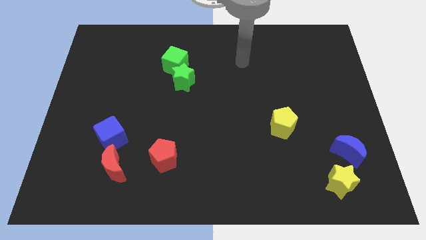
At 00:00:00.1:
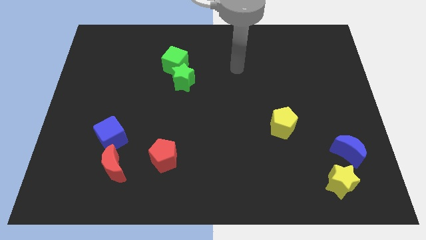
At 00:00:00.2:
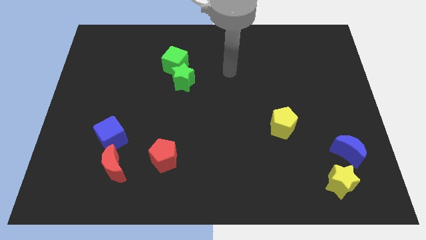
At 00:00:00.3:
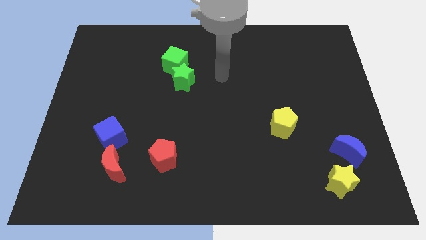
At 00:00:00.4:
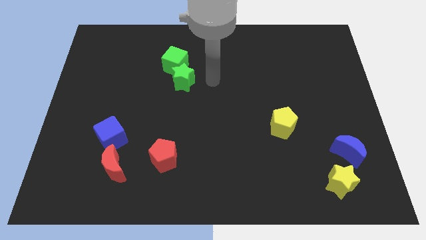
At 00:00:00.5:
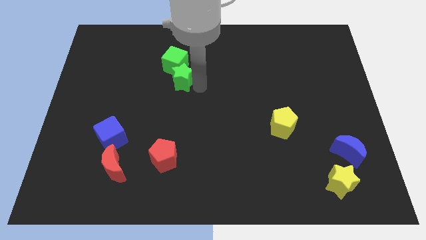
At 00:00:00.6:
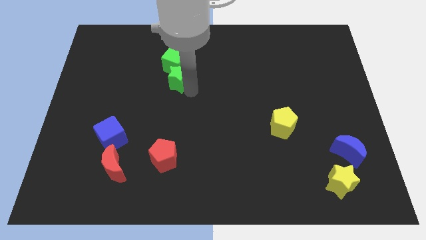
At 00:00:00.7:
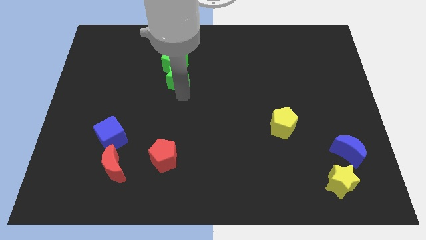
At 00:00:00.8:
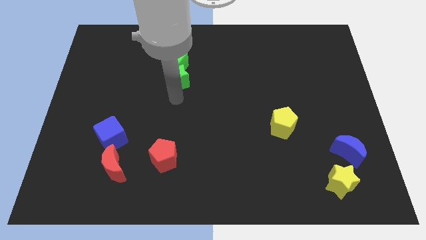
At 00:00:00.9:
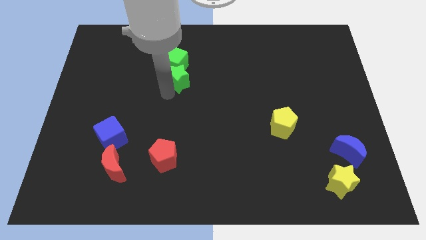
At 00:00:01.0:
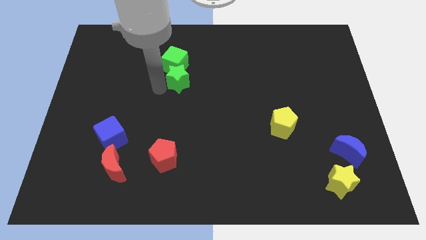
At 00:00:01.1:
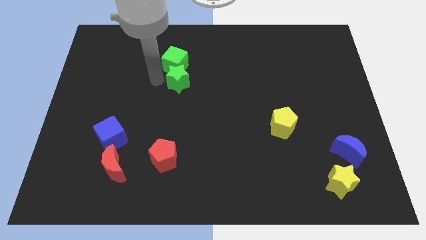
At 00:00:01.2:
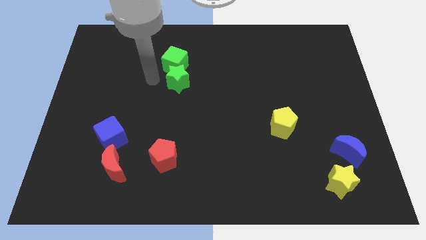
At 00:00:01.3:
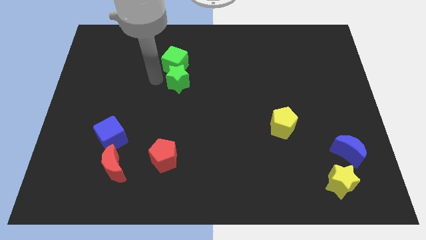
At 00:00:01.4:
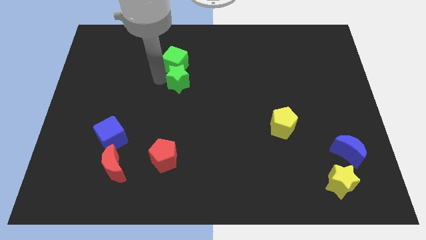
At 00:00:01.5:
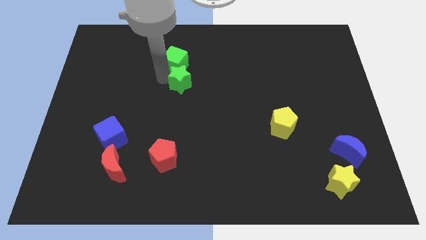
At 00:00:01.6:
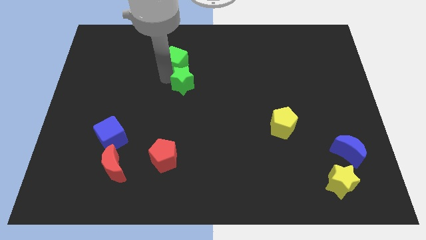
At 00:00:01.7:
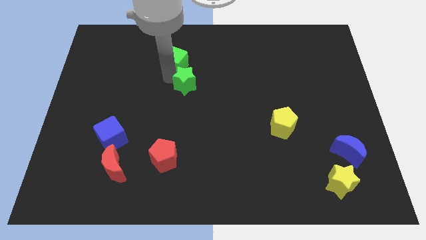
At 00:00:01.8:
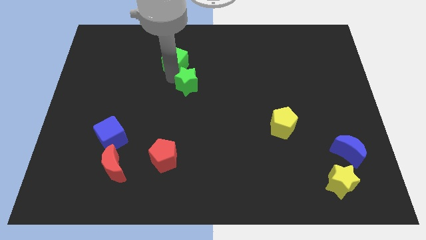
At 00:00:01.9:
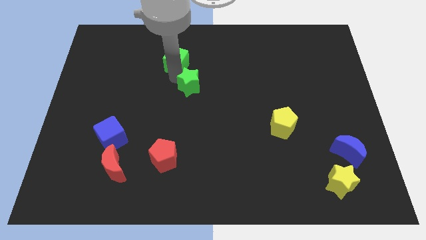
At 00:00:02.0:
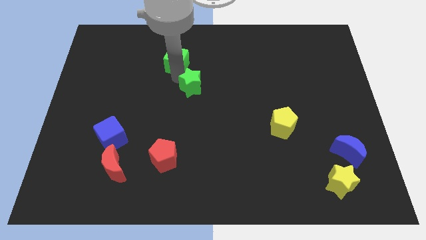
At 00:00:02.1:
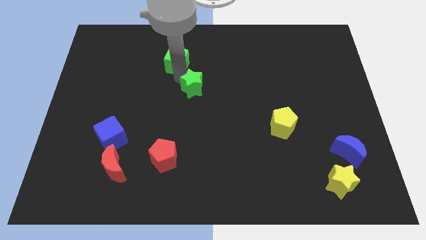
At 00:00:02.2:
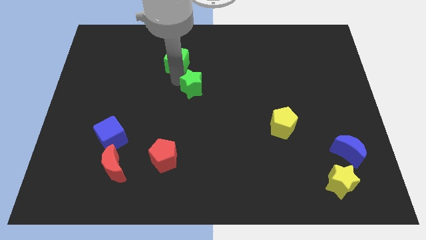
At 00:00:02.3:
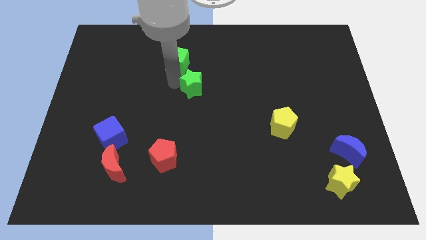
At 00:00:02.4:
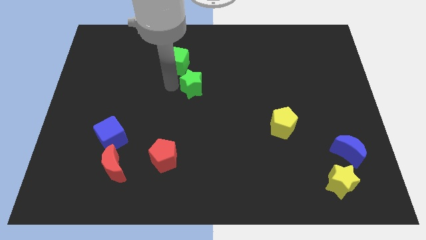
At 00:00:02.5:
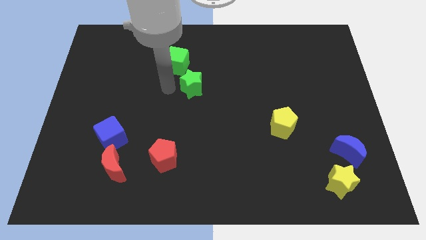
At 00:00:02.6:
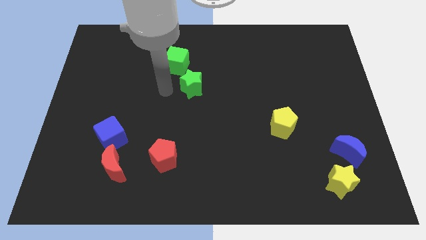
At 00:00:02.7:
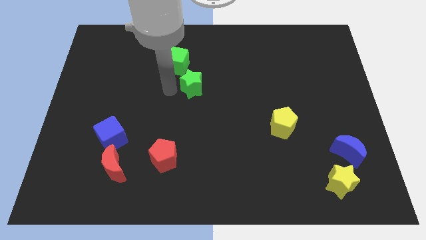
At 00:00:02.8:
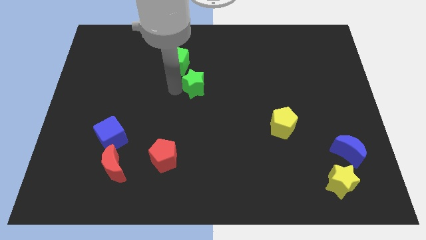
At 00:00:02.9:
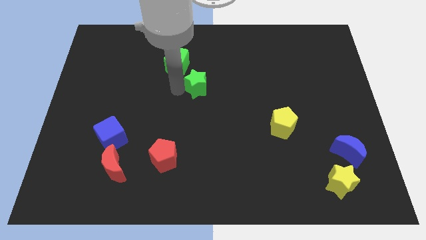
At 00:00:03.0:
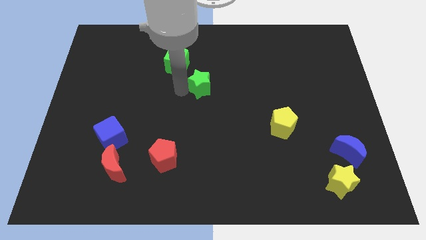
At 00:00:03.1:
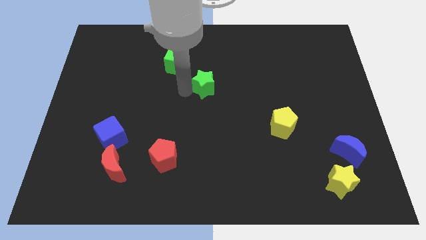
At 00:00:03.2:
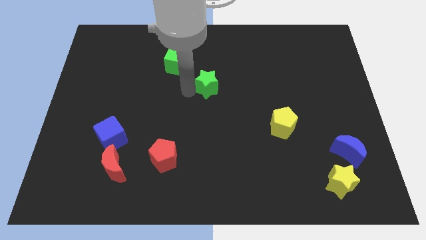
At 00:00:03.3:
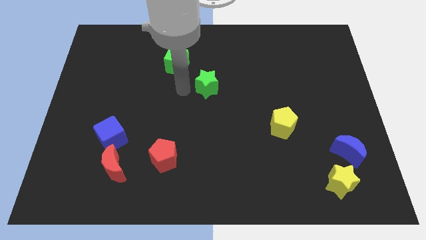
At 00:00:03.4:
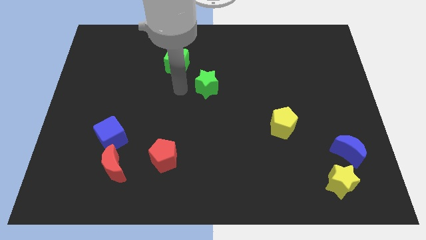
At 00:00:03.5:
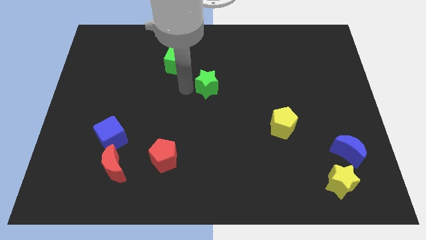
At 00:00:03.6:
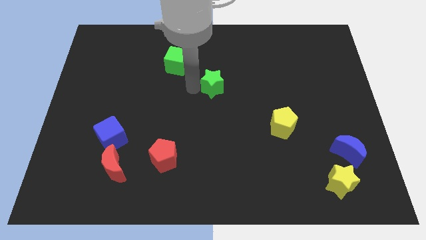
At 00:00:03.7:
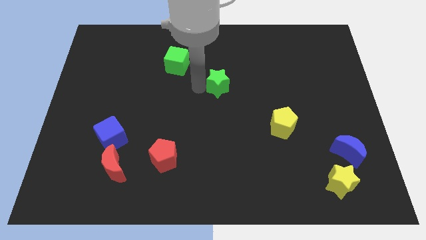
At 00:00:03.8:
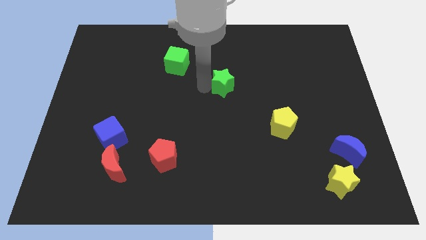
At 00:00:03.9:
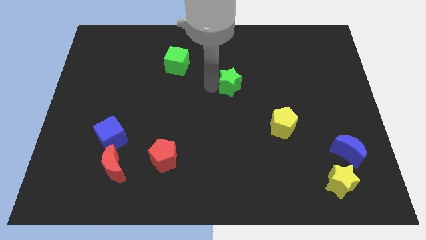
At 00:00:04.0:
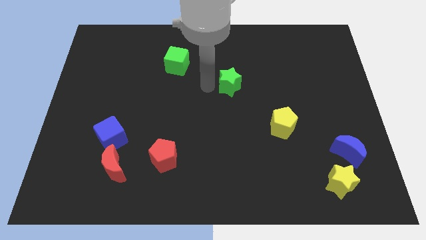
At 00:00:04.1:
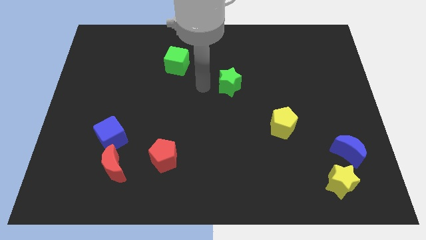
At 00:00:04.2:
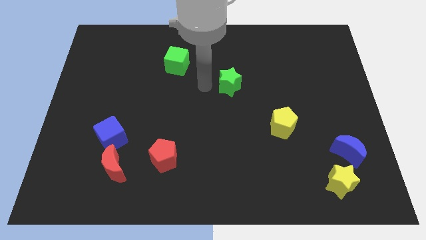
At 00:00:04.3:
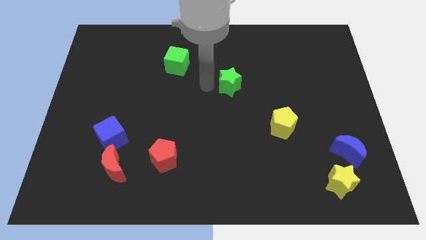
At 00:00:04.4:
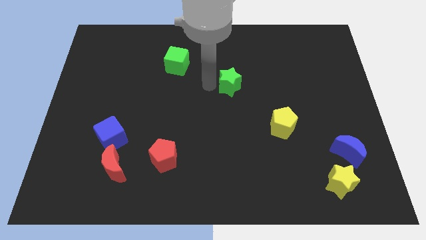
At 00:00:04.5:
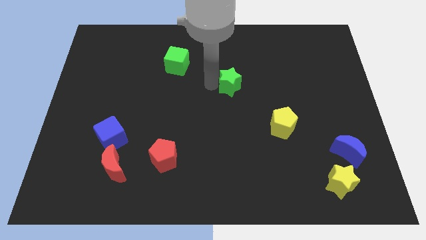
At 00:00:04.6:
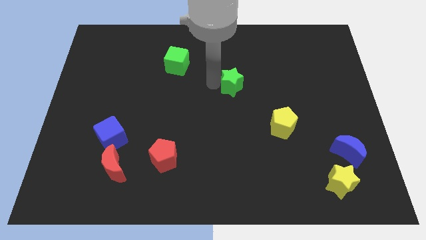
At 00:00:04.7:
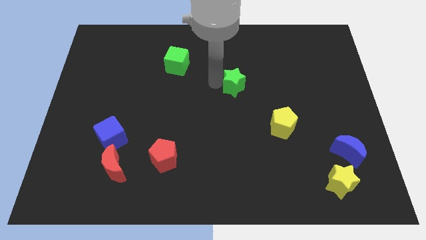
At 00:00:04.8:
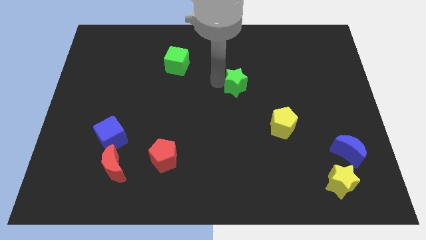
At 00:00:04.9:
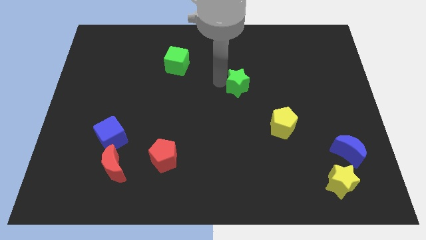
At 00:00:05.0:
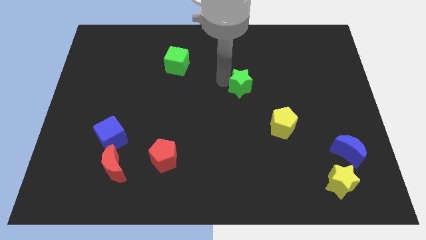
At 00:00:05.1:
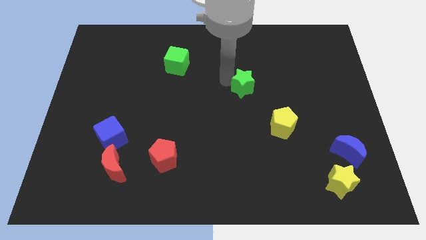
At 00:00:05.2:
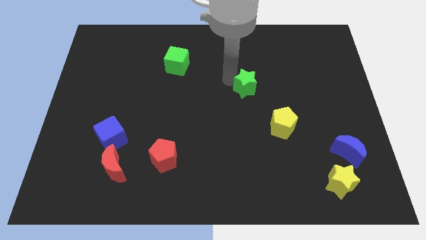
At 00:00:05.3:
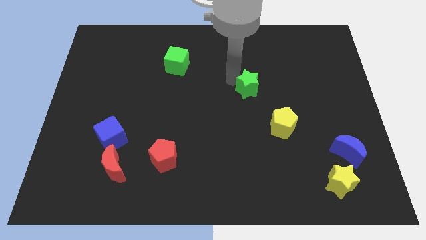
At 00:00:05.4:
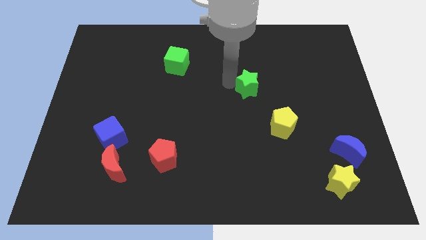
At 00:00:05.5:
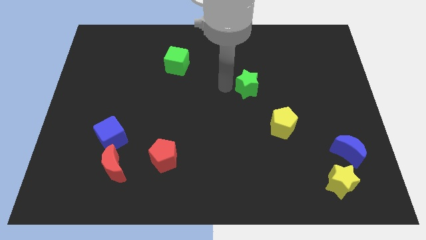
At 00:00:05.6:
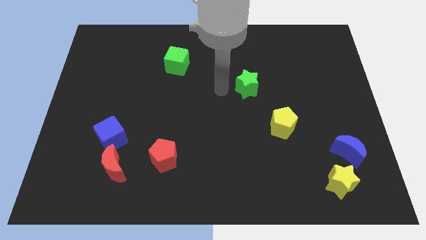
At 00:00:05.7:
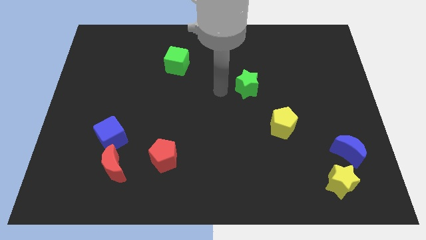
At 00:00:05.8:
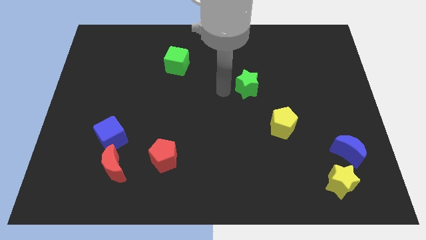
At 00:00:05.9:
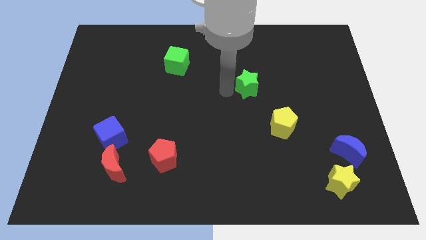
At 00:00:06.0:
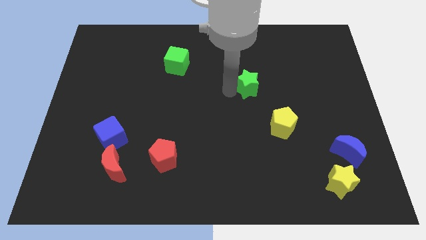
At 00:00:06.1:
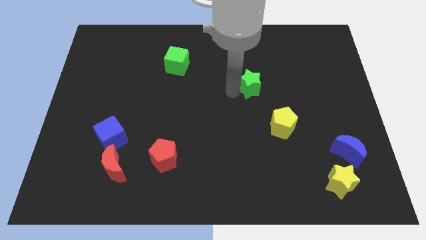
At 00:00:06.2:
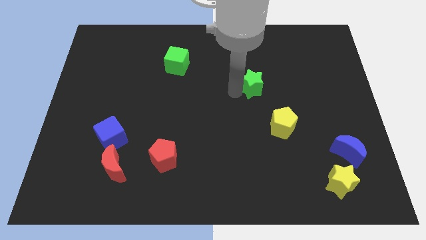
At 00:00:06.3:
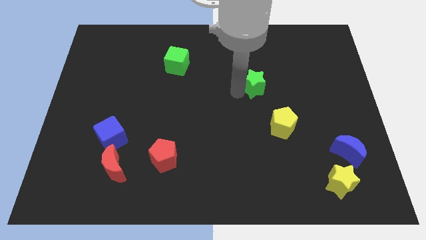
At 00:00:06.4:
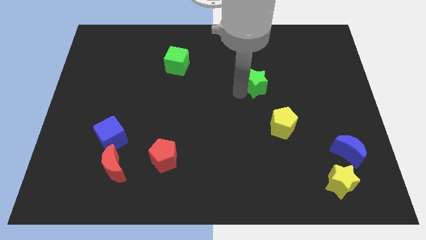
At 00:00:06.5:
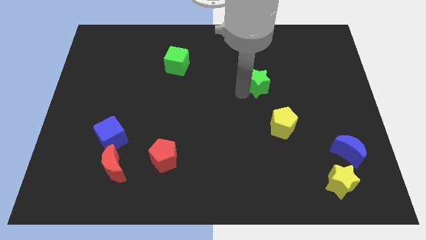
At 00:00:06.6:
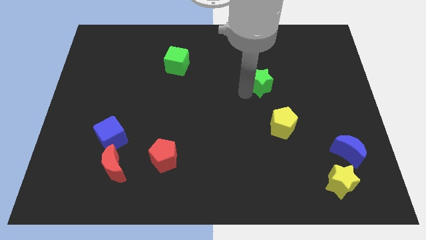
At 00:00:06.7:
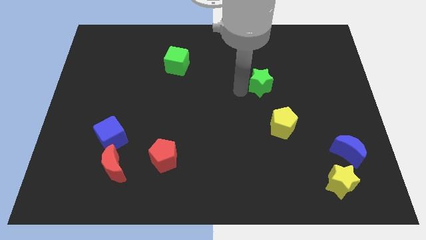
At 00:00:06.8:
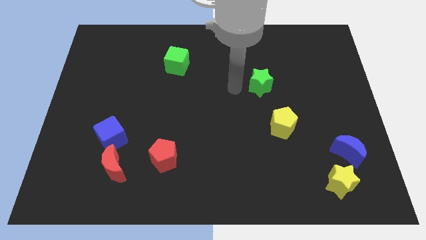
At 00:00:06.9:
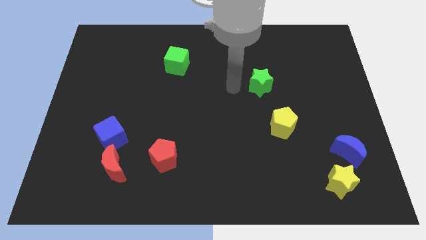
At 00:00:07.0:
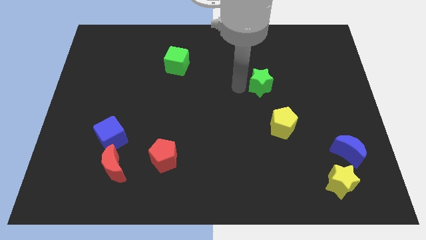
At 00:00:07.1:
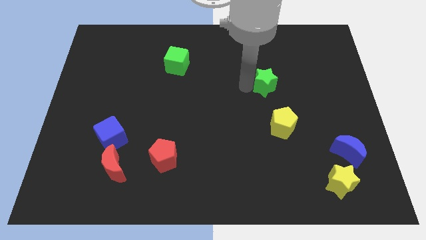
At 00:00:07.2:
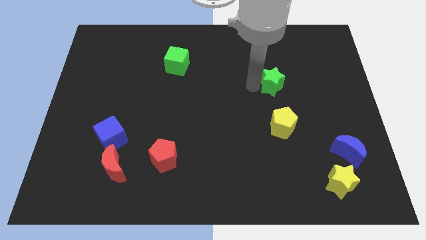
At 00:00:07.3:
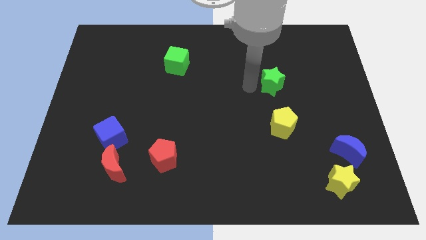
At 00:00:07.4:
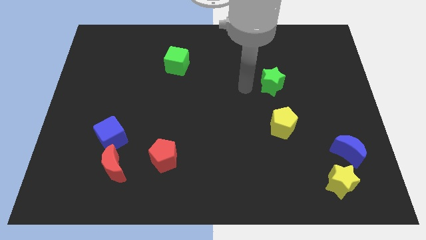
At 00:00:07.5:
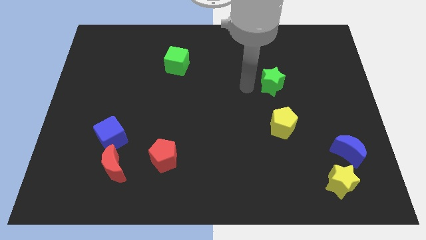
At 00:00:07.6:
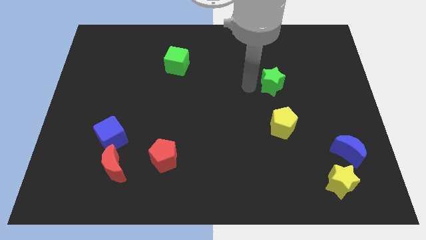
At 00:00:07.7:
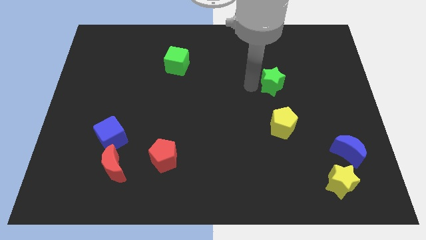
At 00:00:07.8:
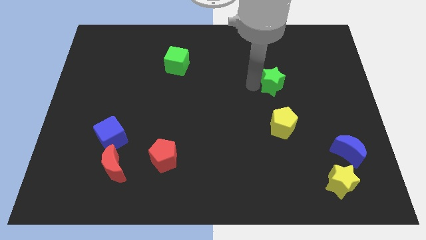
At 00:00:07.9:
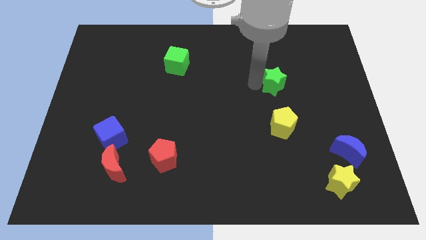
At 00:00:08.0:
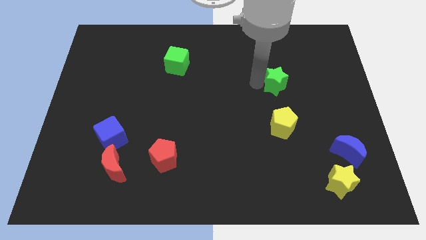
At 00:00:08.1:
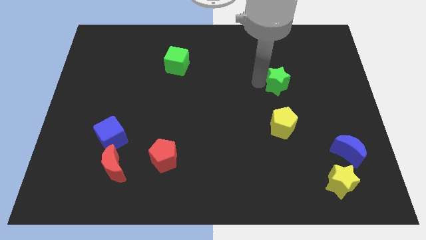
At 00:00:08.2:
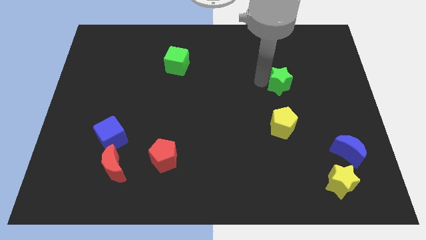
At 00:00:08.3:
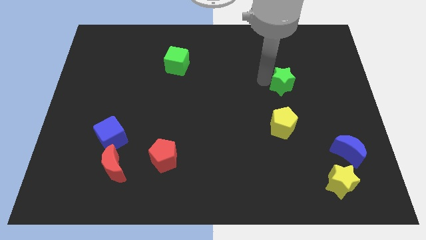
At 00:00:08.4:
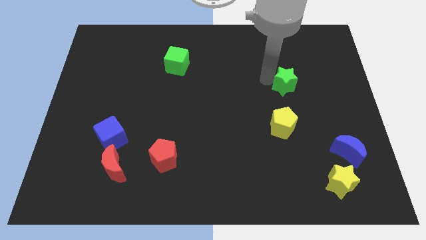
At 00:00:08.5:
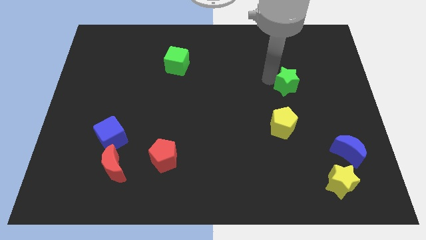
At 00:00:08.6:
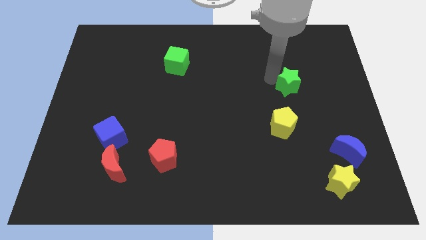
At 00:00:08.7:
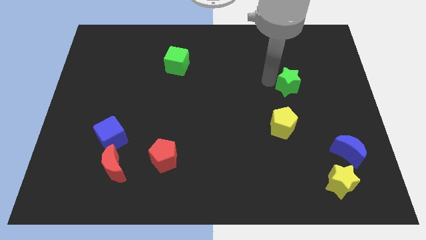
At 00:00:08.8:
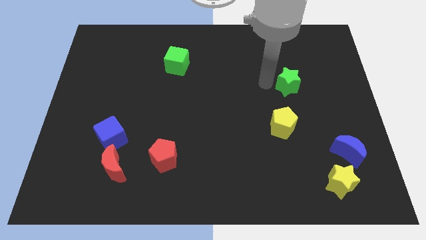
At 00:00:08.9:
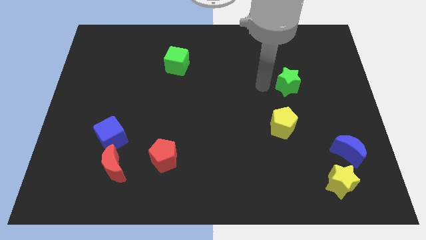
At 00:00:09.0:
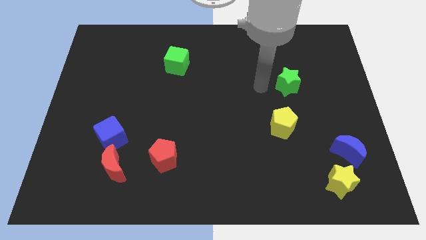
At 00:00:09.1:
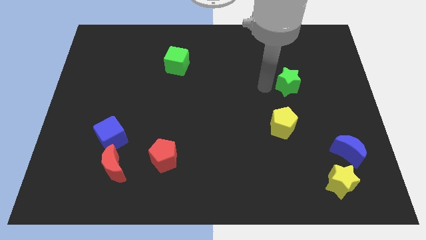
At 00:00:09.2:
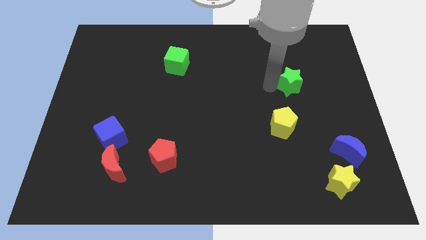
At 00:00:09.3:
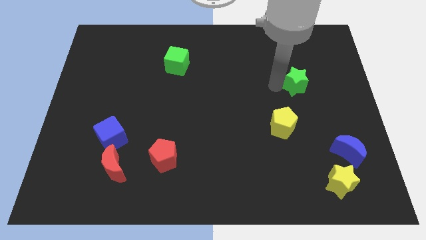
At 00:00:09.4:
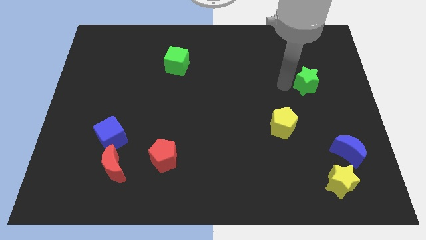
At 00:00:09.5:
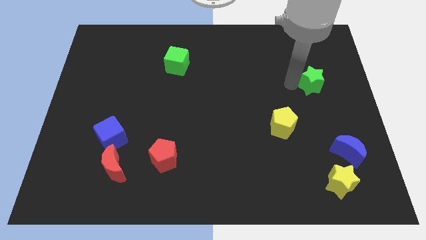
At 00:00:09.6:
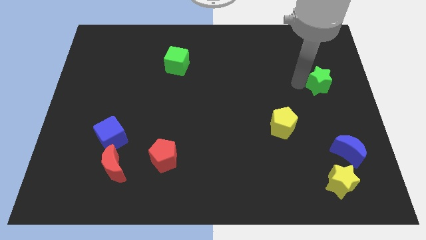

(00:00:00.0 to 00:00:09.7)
put the green star to the right side
